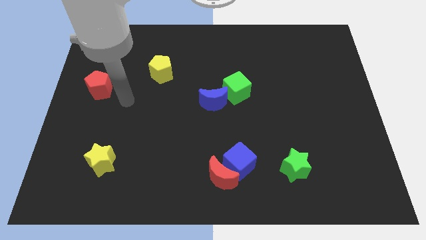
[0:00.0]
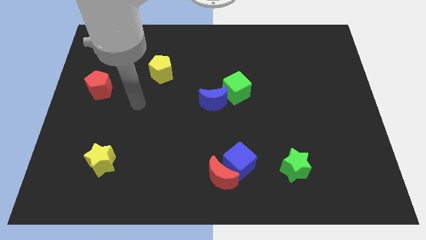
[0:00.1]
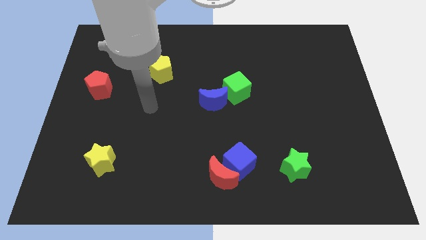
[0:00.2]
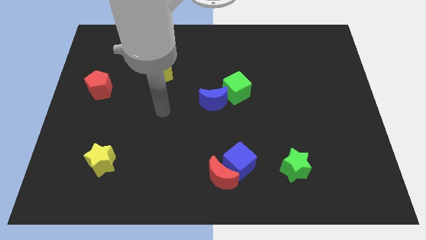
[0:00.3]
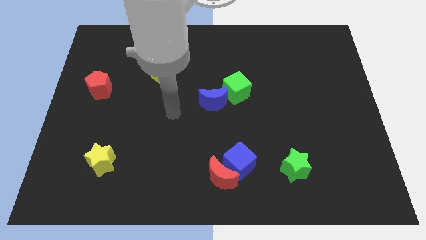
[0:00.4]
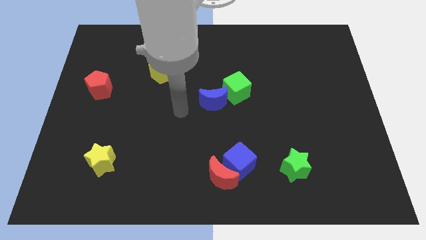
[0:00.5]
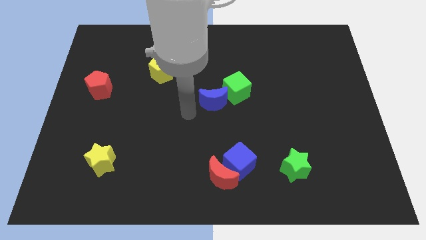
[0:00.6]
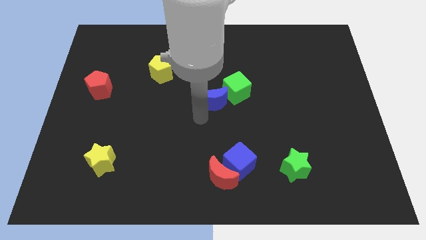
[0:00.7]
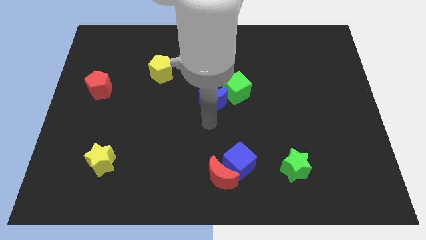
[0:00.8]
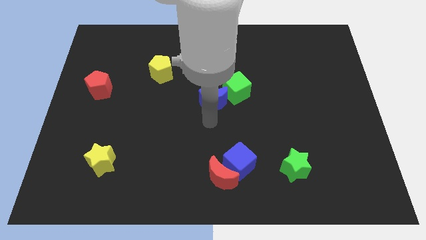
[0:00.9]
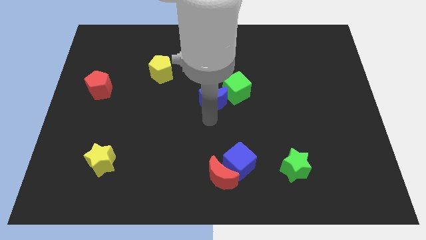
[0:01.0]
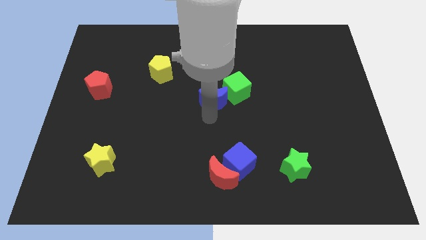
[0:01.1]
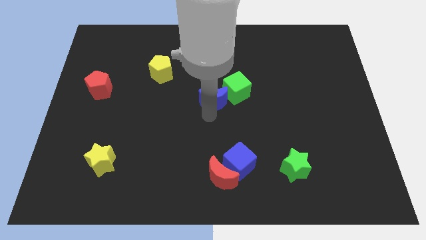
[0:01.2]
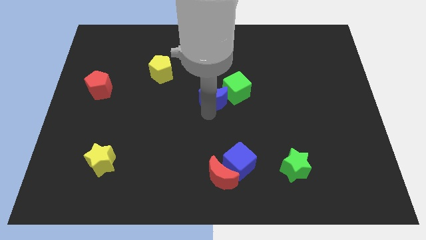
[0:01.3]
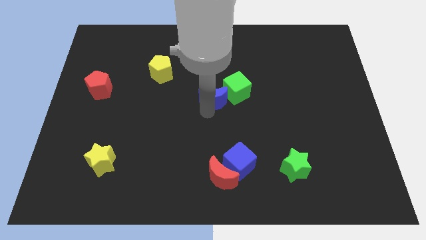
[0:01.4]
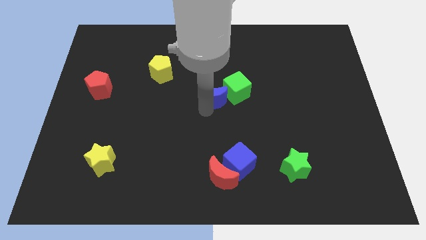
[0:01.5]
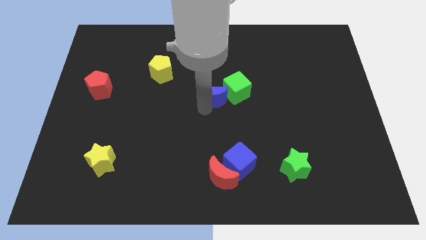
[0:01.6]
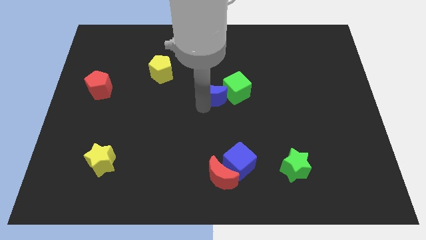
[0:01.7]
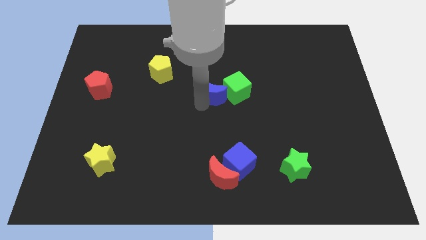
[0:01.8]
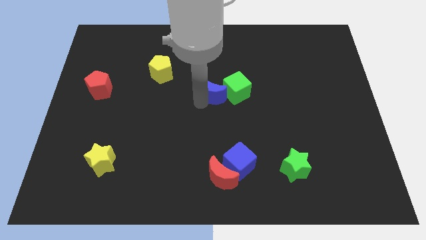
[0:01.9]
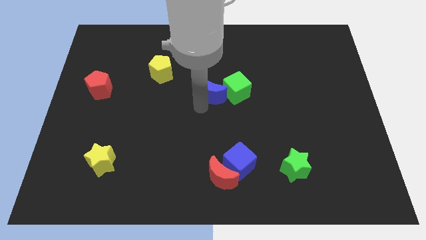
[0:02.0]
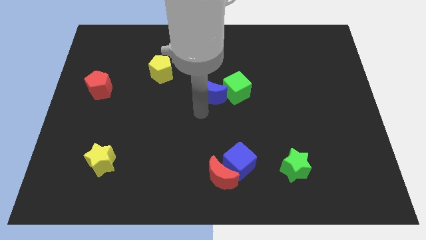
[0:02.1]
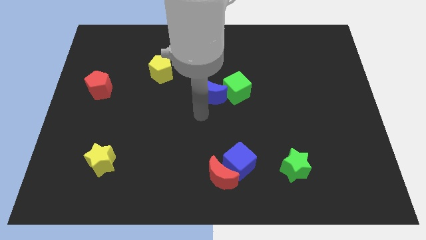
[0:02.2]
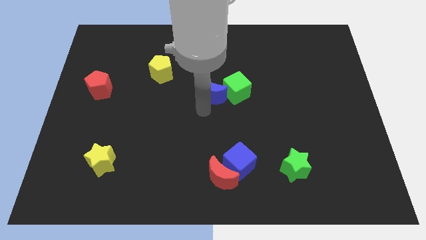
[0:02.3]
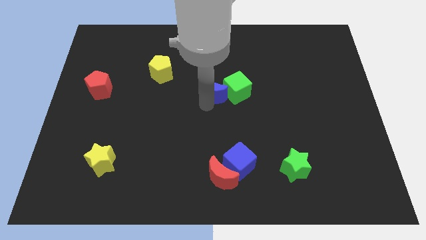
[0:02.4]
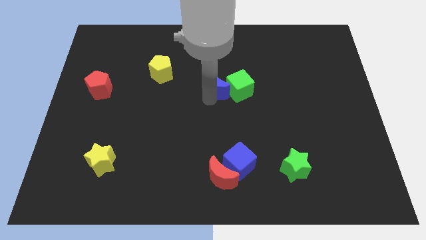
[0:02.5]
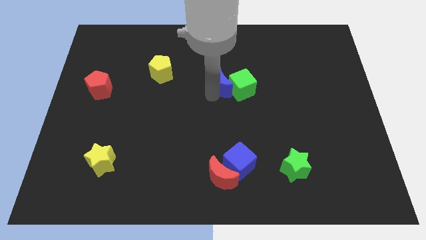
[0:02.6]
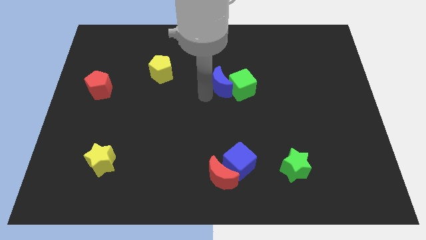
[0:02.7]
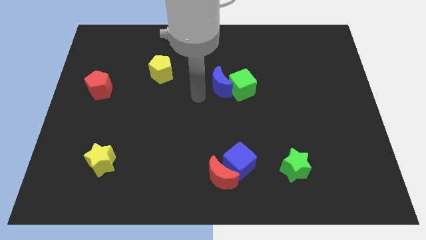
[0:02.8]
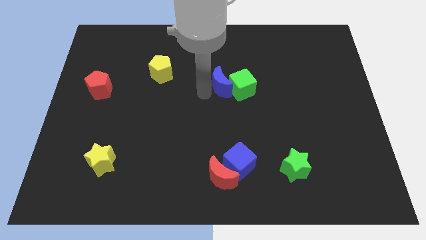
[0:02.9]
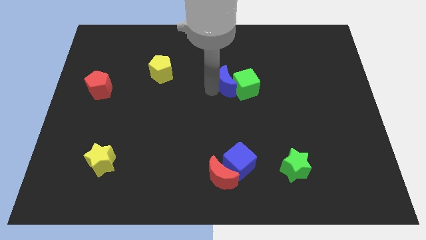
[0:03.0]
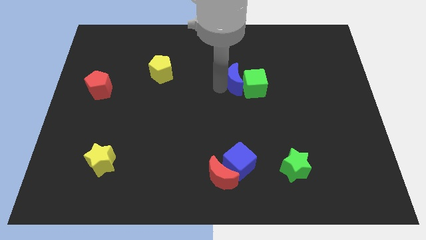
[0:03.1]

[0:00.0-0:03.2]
slide the blue moon diagonally up and to the right somewhat

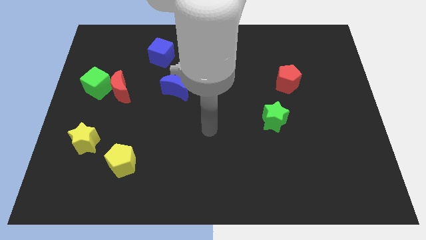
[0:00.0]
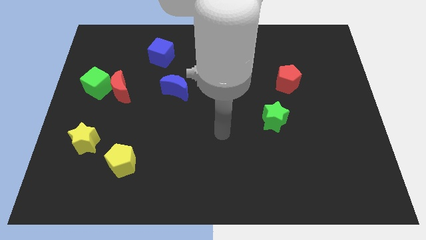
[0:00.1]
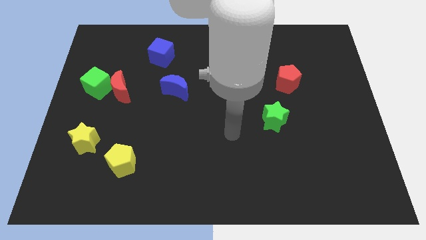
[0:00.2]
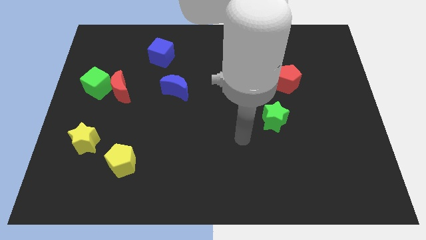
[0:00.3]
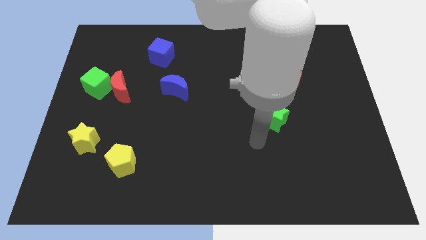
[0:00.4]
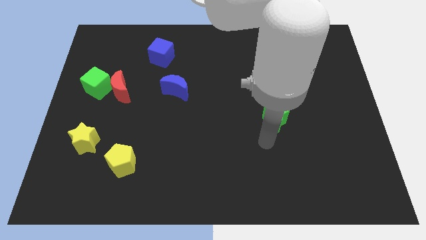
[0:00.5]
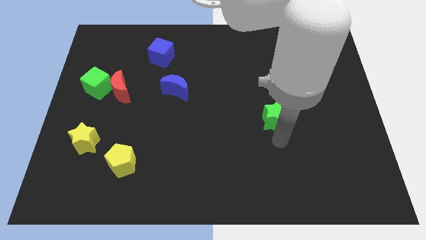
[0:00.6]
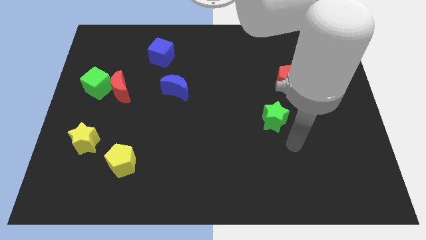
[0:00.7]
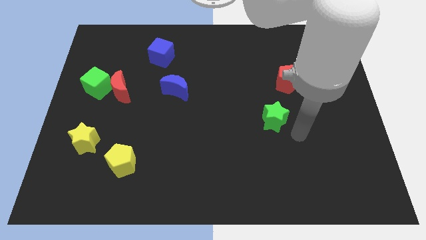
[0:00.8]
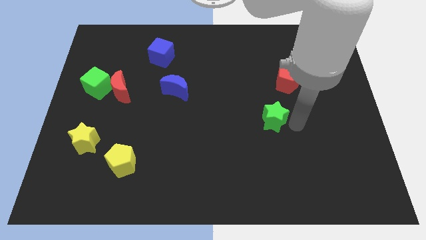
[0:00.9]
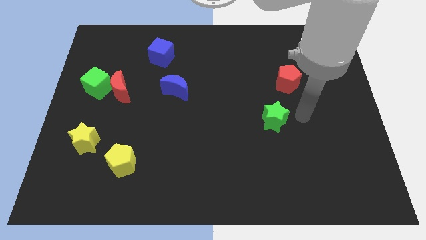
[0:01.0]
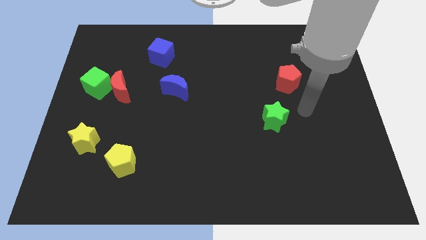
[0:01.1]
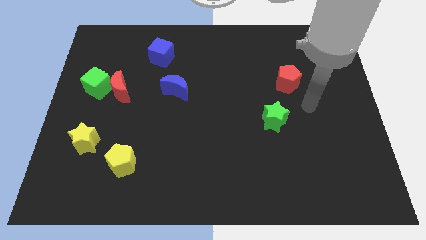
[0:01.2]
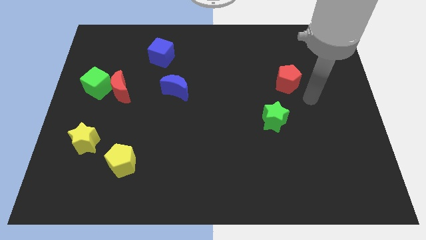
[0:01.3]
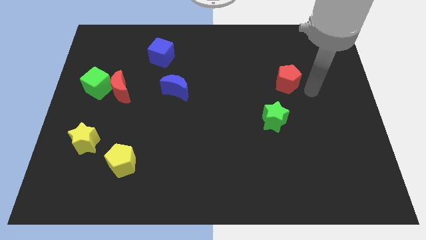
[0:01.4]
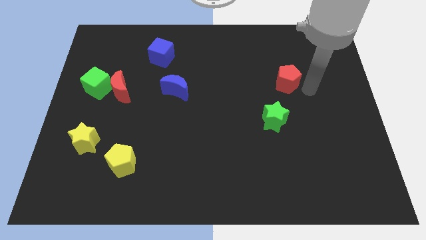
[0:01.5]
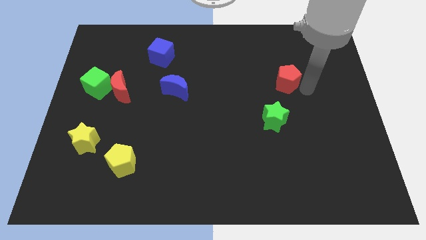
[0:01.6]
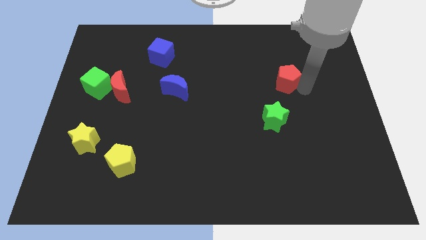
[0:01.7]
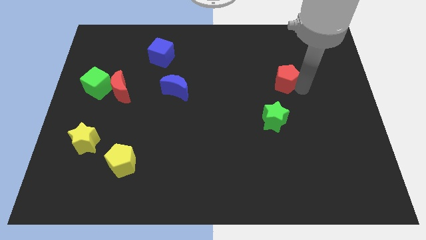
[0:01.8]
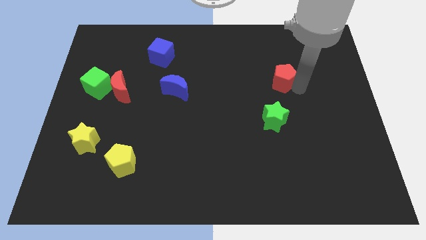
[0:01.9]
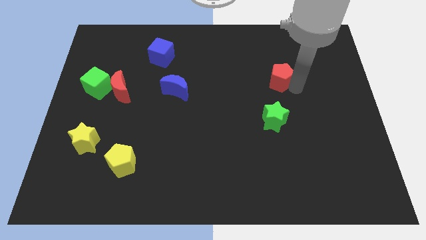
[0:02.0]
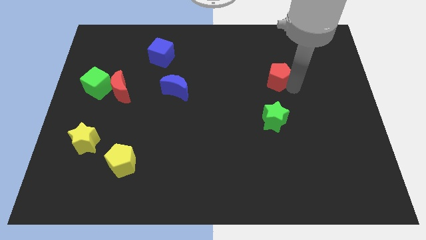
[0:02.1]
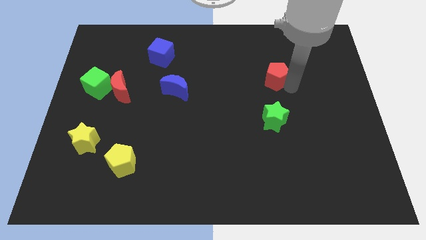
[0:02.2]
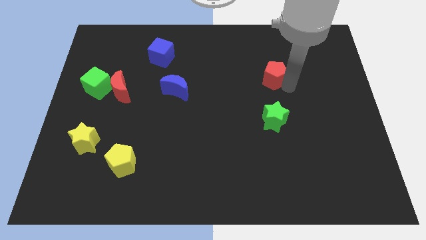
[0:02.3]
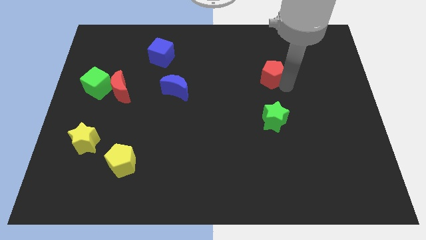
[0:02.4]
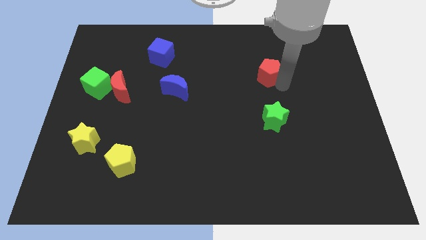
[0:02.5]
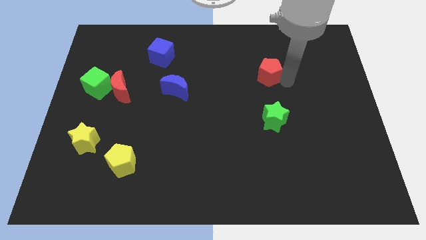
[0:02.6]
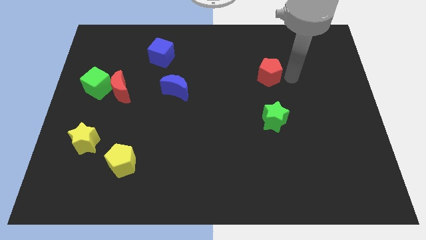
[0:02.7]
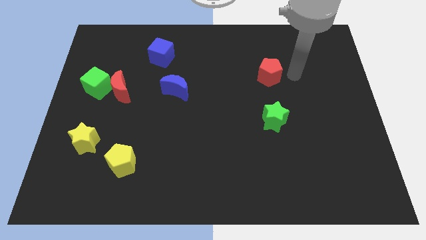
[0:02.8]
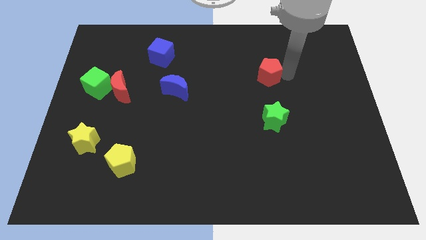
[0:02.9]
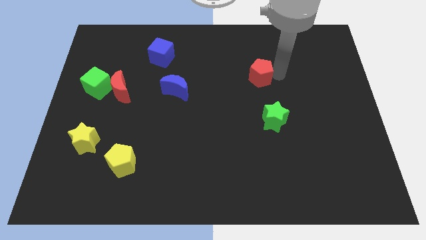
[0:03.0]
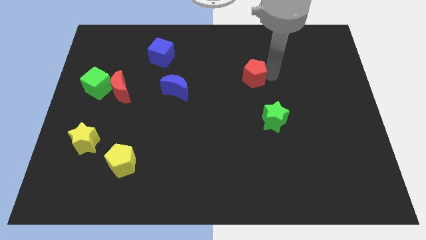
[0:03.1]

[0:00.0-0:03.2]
push the red pentagon a bit left

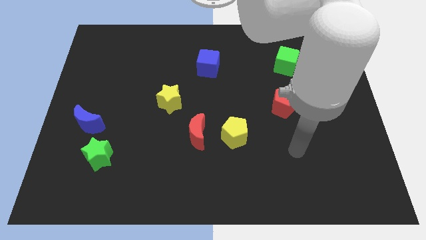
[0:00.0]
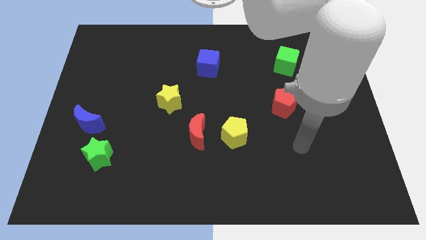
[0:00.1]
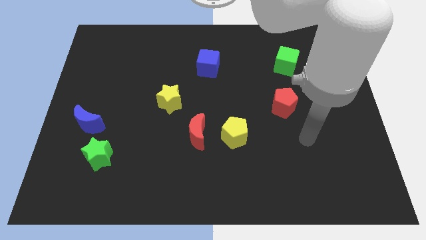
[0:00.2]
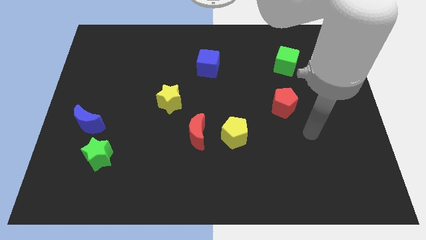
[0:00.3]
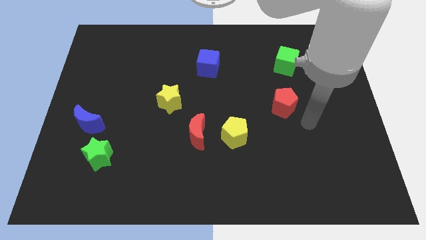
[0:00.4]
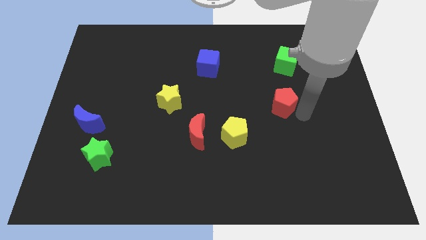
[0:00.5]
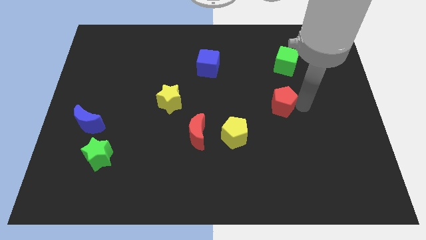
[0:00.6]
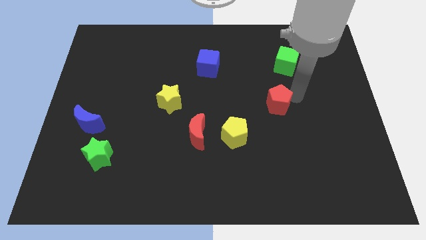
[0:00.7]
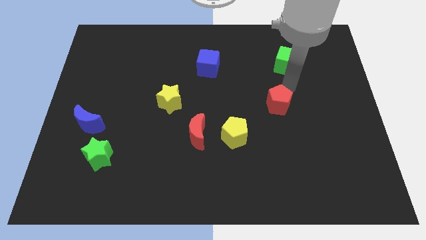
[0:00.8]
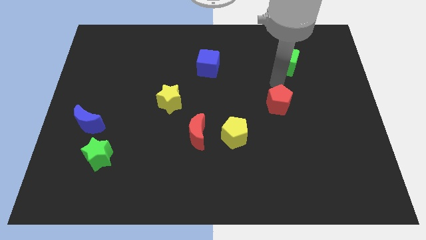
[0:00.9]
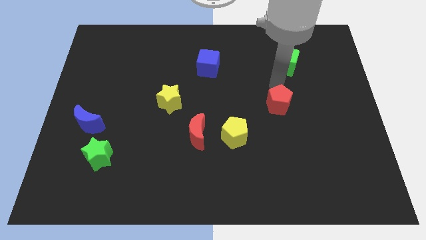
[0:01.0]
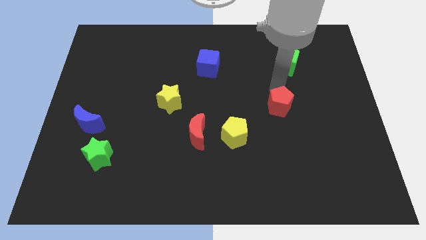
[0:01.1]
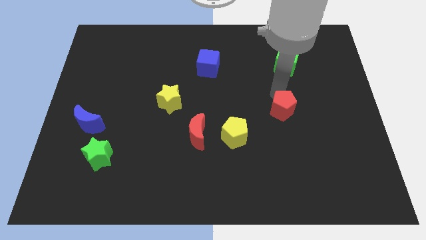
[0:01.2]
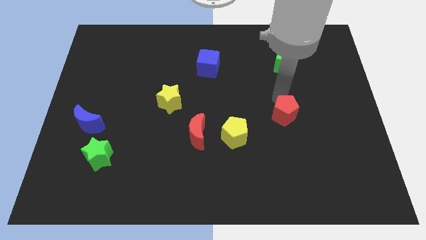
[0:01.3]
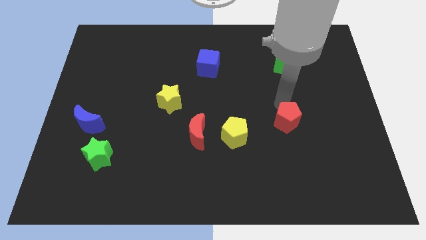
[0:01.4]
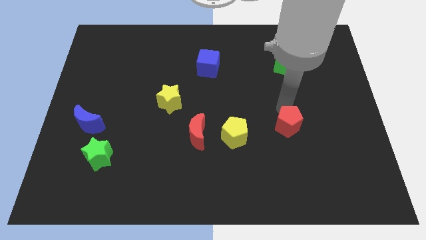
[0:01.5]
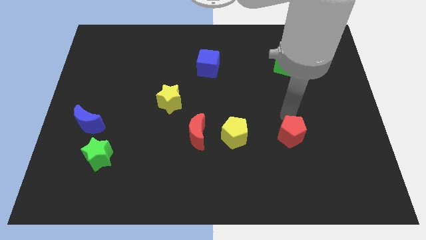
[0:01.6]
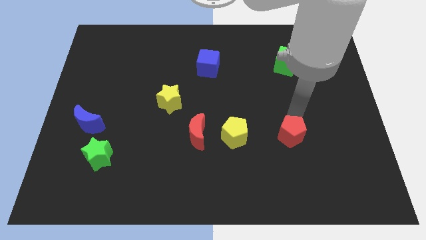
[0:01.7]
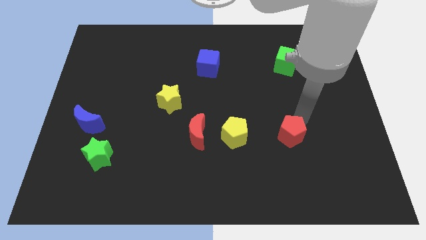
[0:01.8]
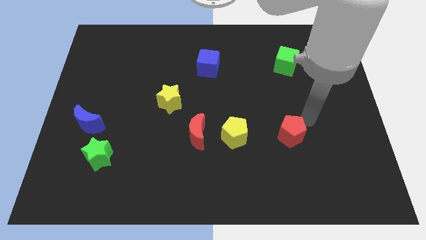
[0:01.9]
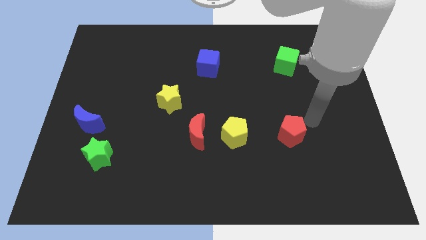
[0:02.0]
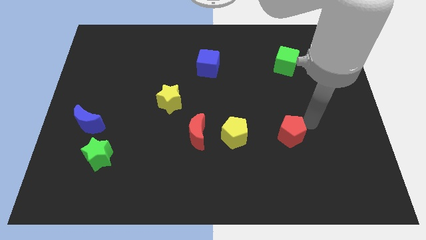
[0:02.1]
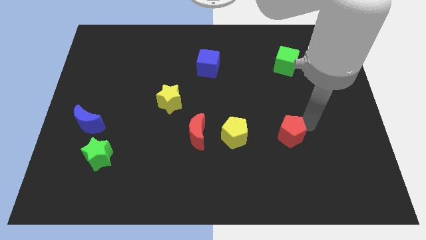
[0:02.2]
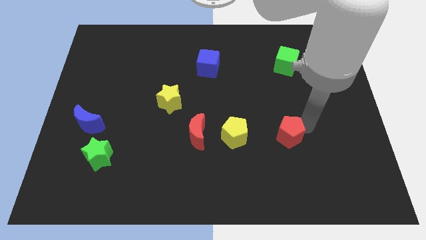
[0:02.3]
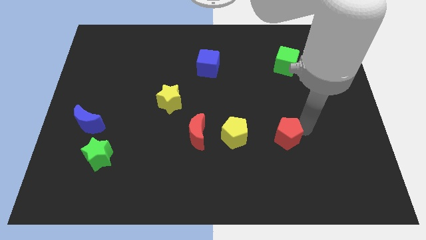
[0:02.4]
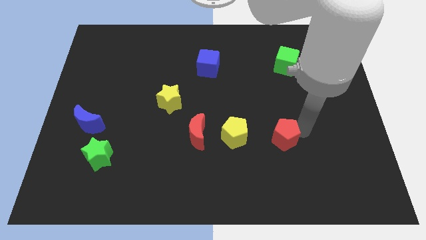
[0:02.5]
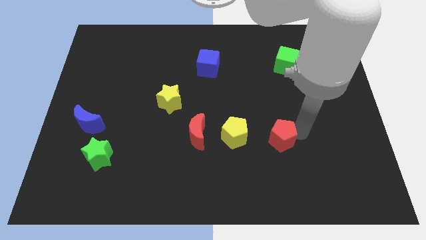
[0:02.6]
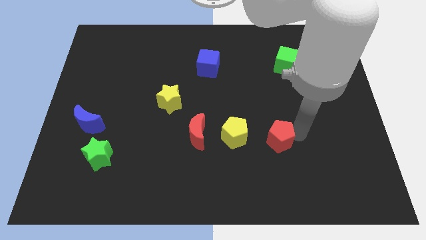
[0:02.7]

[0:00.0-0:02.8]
push the red pentagon slightly diagonally down and left
